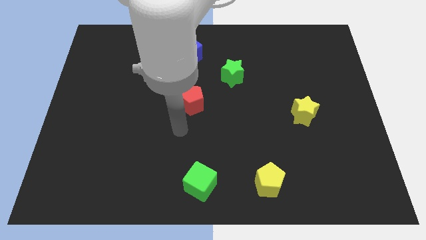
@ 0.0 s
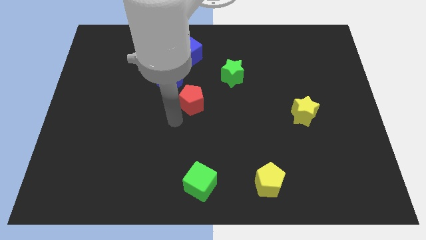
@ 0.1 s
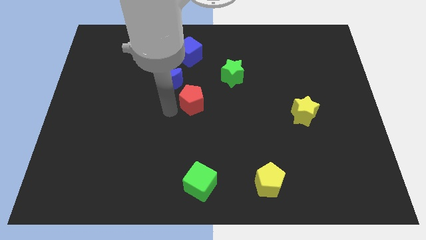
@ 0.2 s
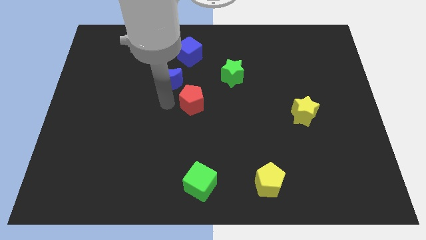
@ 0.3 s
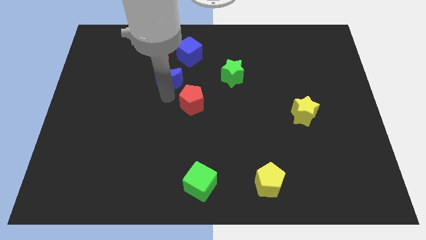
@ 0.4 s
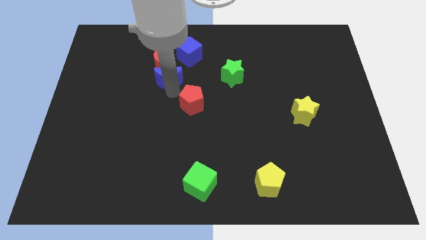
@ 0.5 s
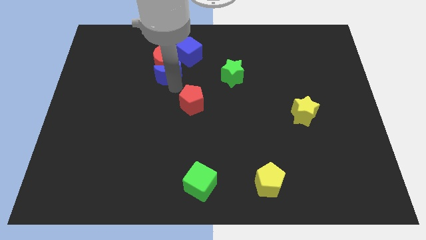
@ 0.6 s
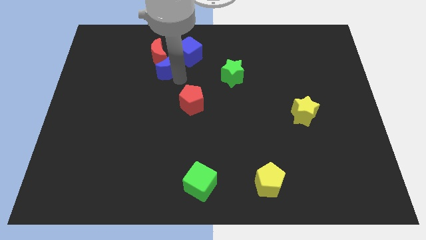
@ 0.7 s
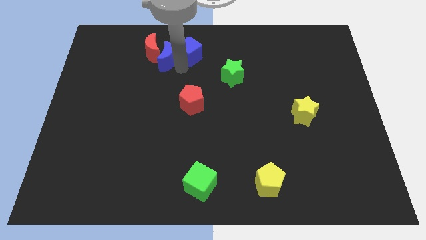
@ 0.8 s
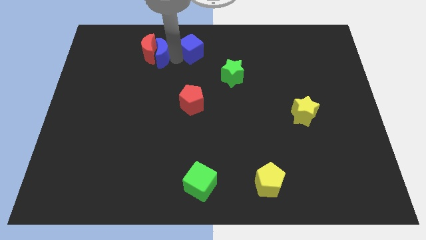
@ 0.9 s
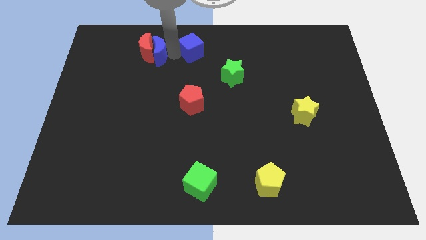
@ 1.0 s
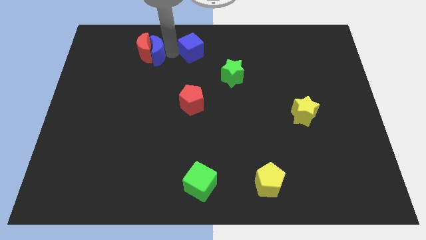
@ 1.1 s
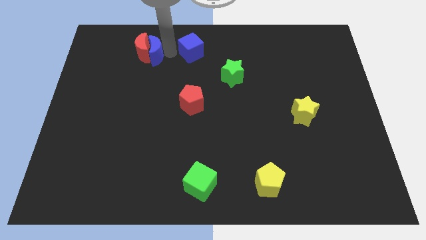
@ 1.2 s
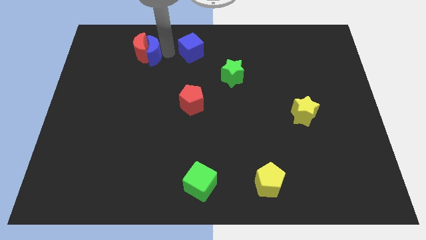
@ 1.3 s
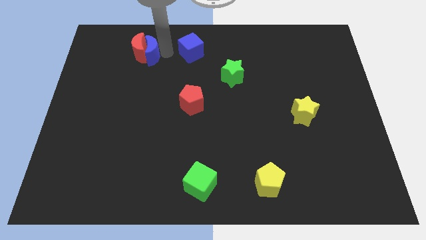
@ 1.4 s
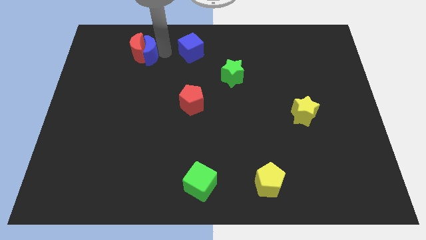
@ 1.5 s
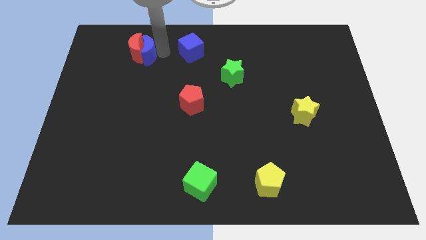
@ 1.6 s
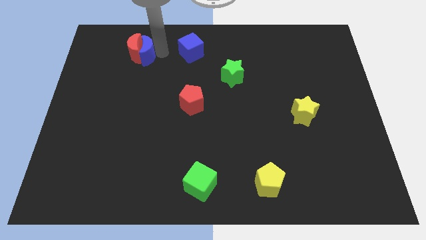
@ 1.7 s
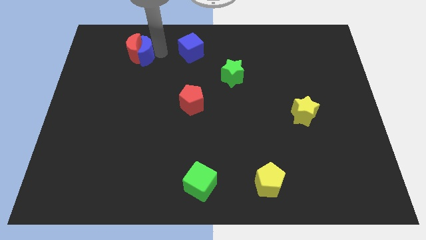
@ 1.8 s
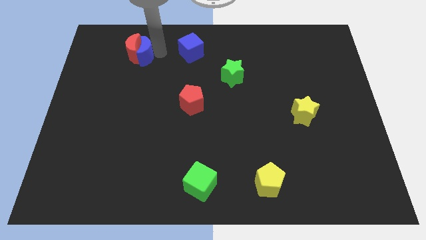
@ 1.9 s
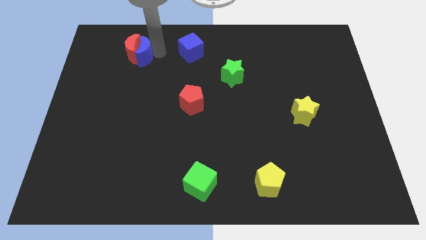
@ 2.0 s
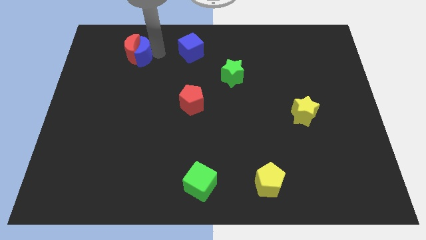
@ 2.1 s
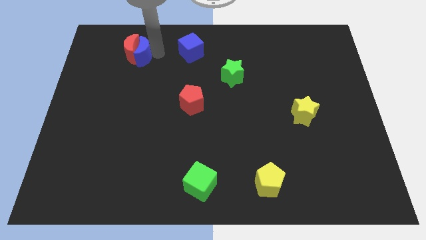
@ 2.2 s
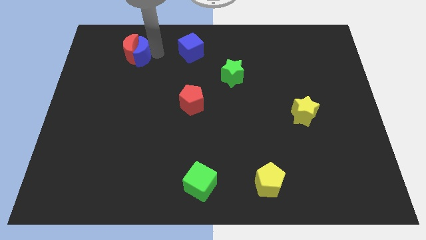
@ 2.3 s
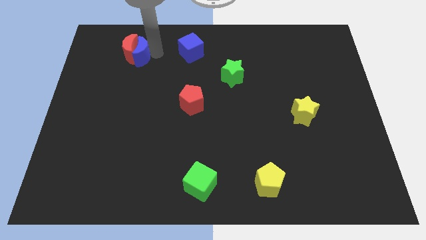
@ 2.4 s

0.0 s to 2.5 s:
move the red moon away from the blue moon and blue cube

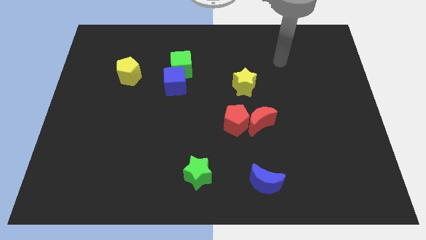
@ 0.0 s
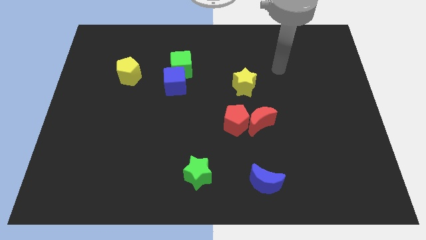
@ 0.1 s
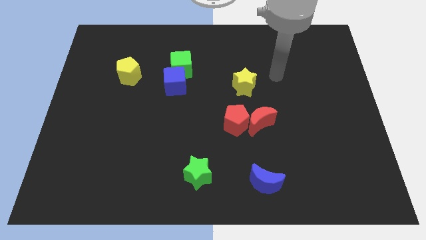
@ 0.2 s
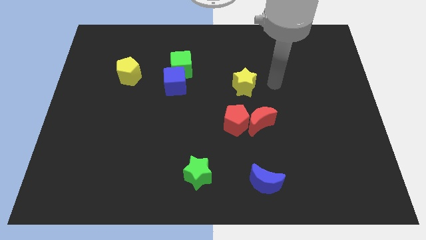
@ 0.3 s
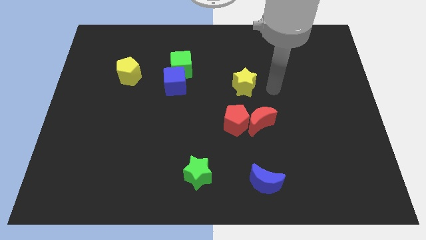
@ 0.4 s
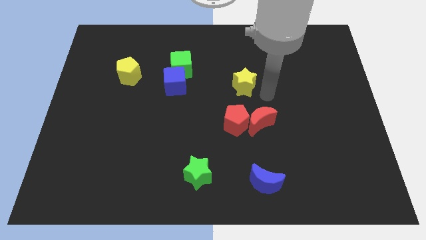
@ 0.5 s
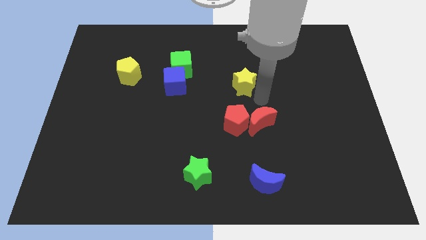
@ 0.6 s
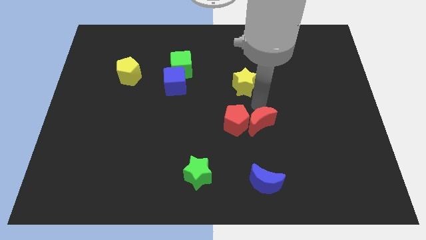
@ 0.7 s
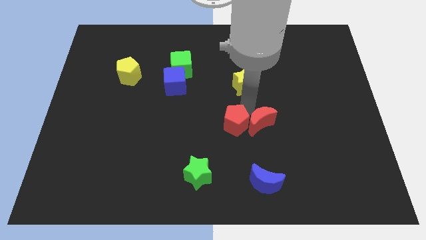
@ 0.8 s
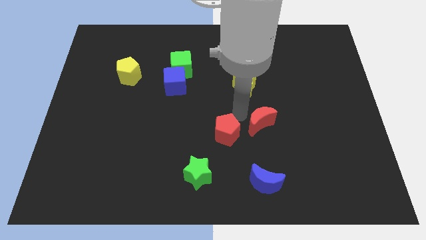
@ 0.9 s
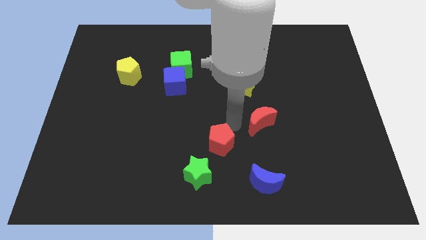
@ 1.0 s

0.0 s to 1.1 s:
pull the red moon apart from the red pentagon

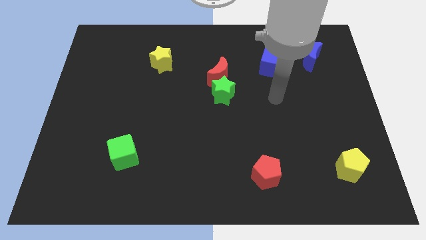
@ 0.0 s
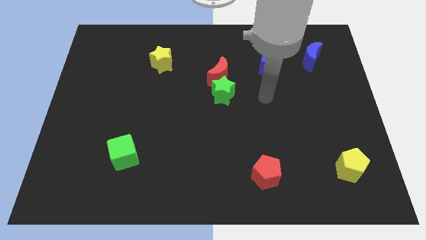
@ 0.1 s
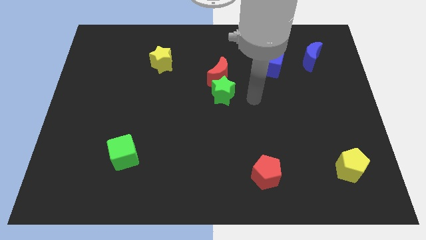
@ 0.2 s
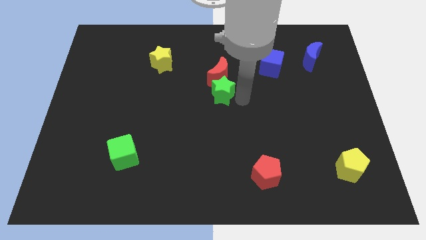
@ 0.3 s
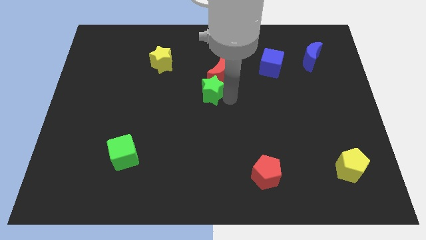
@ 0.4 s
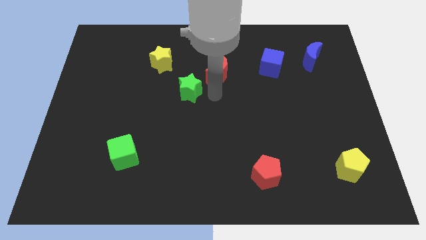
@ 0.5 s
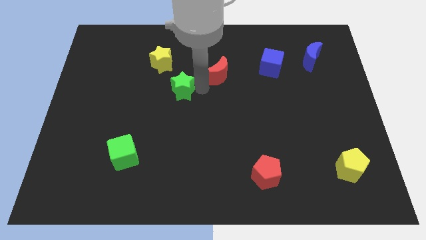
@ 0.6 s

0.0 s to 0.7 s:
pull the red moon apart from the green star

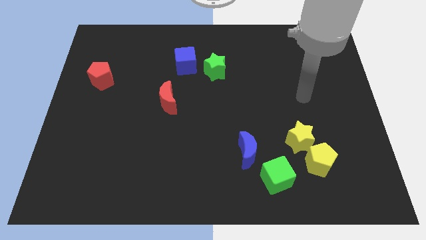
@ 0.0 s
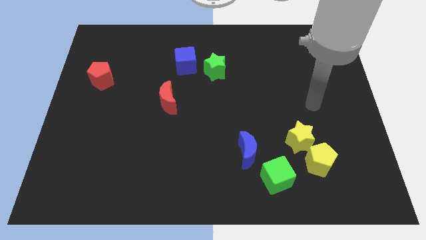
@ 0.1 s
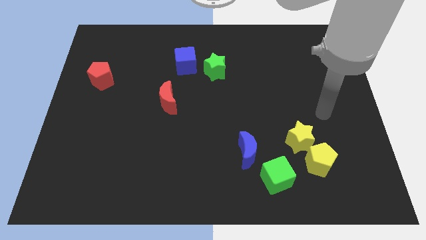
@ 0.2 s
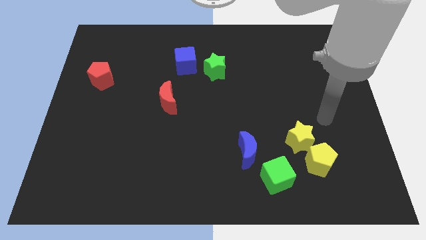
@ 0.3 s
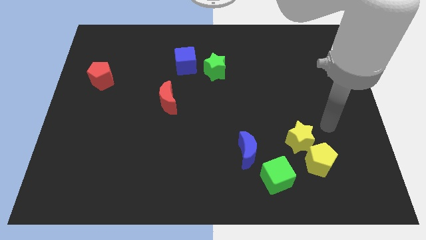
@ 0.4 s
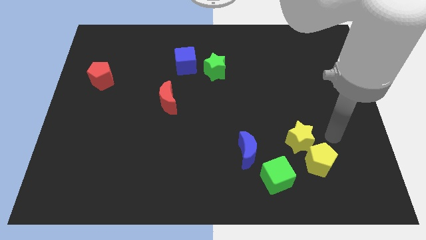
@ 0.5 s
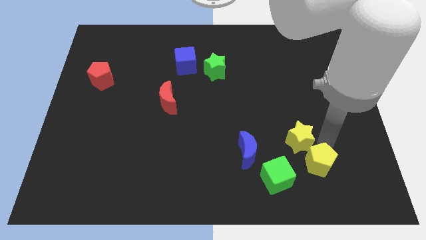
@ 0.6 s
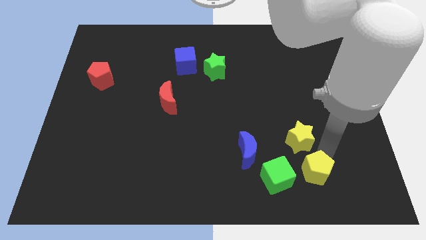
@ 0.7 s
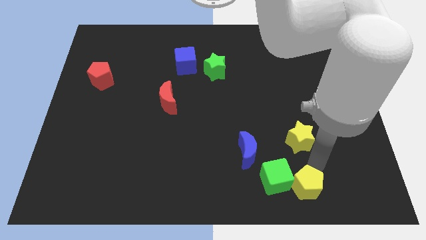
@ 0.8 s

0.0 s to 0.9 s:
separate the yellow star from the yellow pentagon

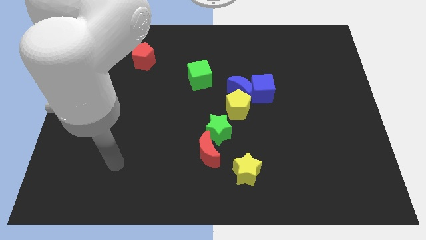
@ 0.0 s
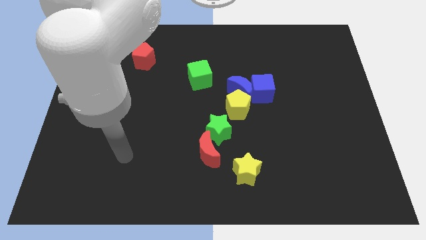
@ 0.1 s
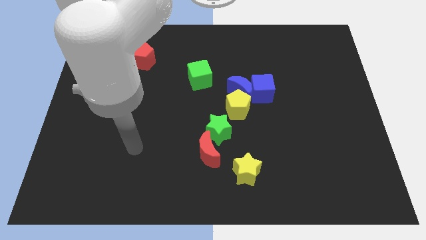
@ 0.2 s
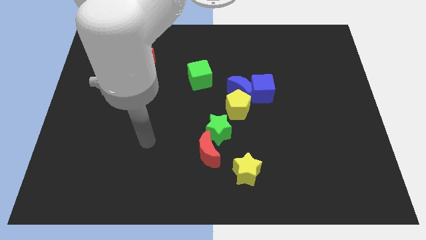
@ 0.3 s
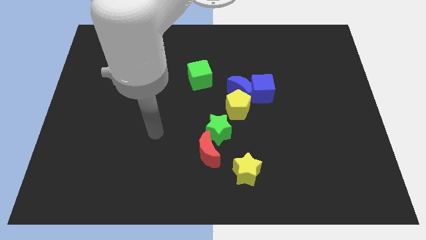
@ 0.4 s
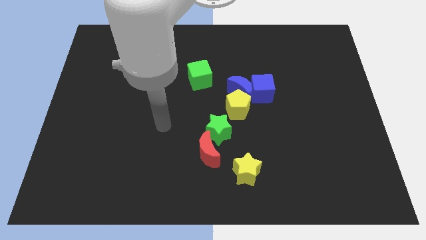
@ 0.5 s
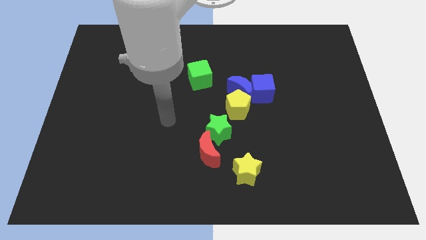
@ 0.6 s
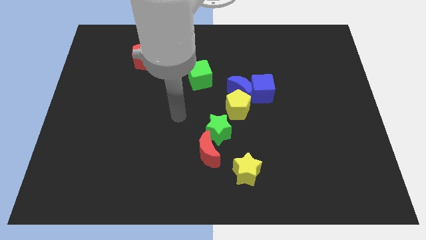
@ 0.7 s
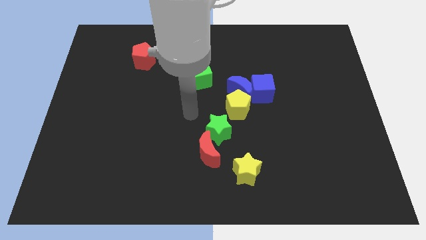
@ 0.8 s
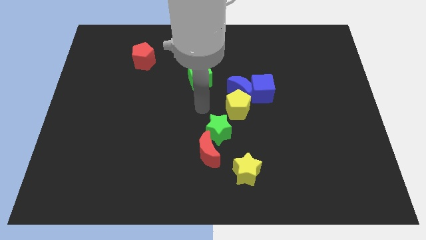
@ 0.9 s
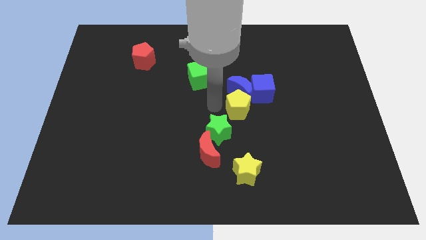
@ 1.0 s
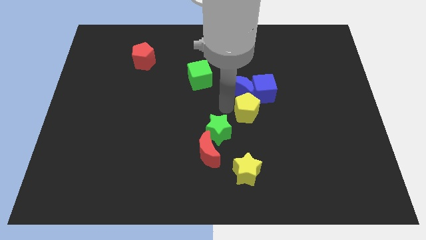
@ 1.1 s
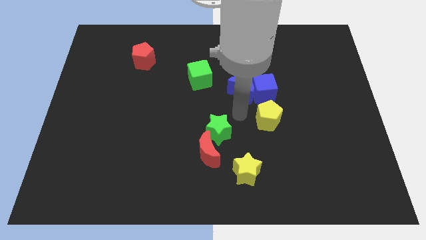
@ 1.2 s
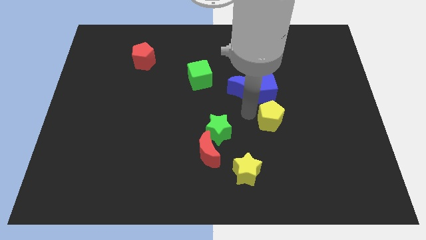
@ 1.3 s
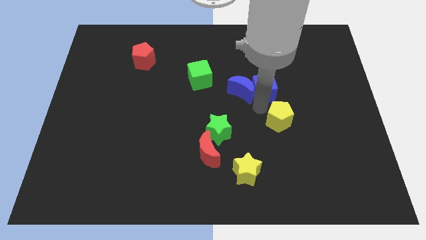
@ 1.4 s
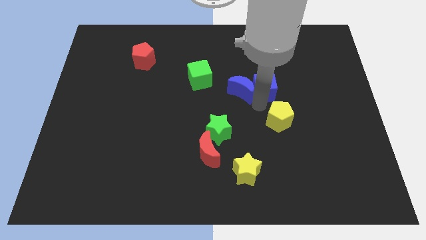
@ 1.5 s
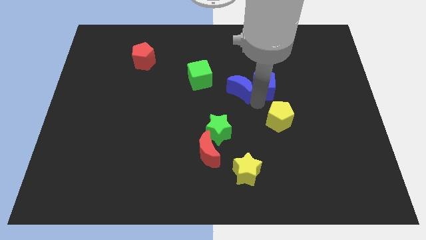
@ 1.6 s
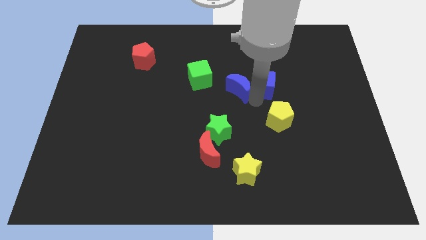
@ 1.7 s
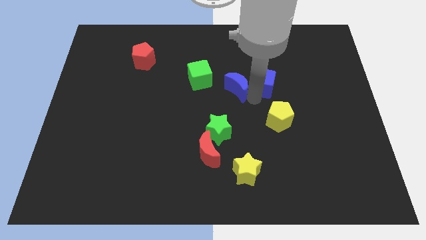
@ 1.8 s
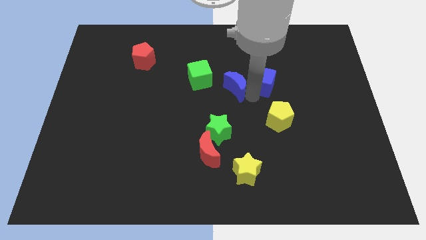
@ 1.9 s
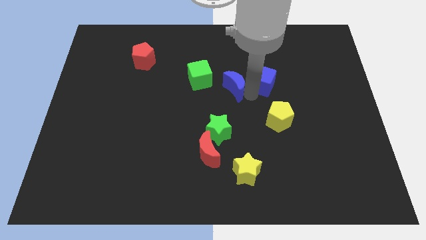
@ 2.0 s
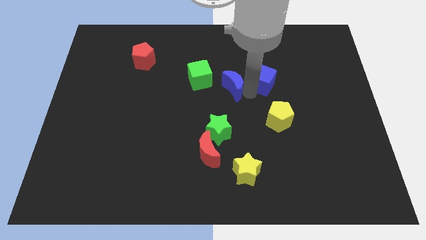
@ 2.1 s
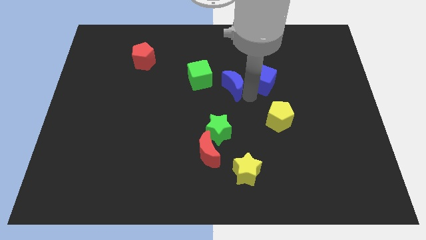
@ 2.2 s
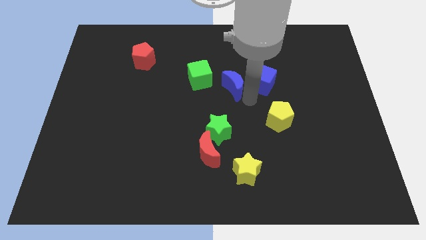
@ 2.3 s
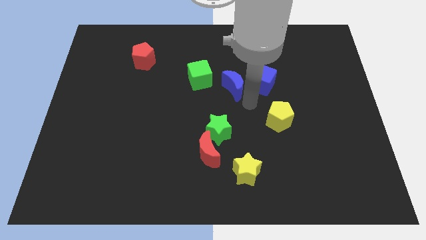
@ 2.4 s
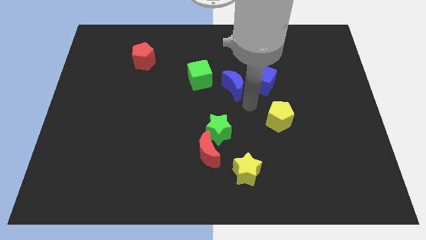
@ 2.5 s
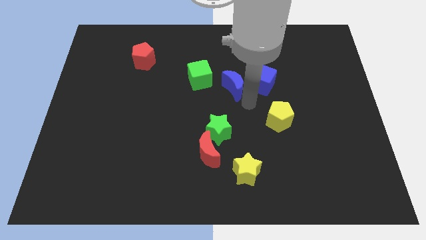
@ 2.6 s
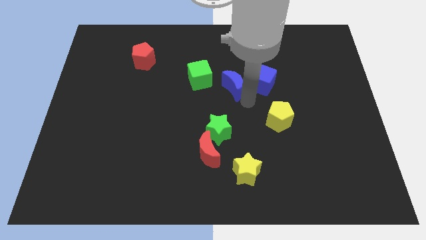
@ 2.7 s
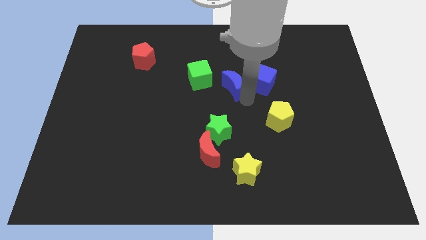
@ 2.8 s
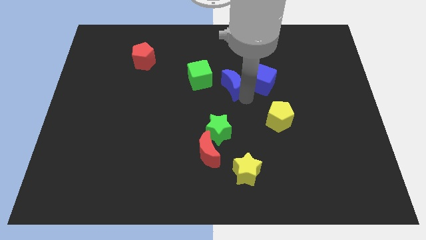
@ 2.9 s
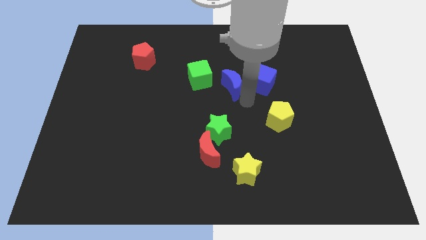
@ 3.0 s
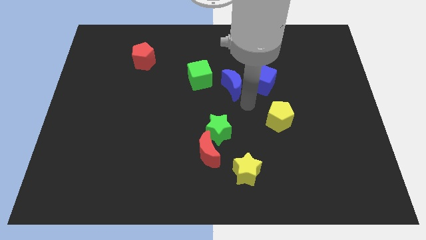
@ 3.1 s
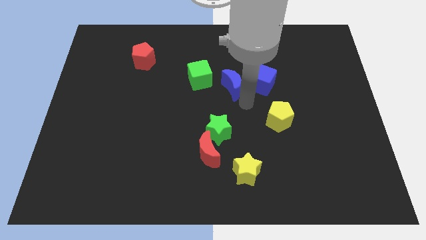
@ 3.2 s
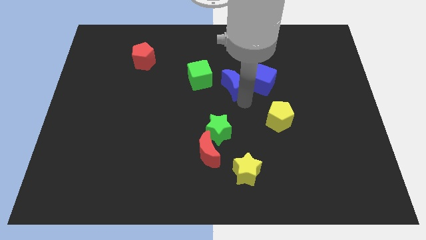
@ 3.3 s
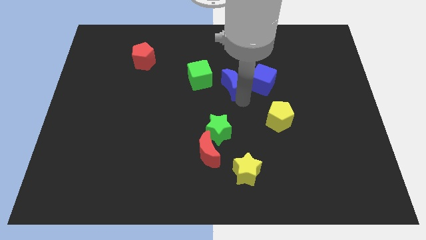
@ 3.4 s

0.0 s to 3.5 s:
pull the blue moon apart from the blue cube and yellow pentagon

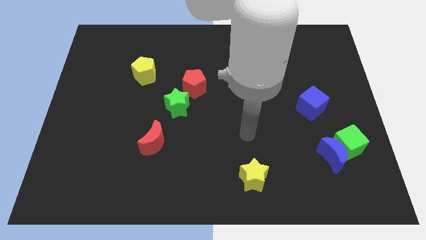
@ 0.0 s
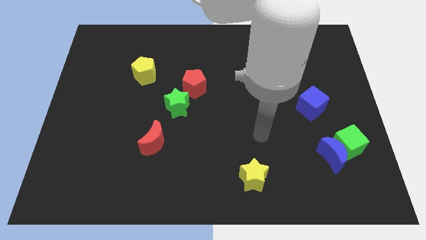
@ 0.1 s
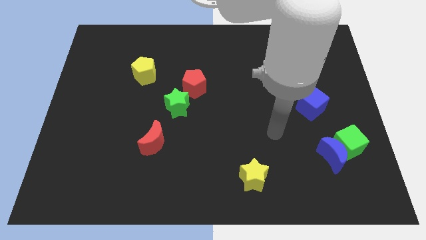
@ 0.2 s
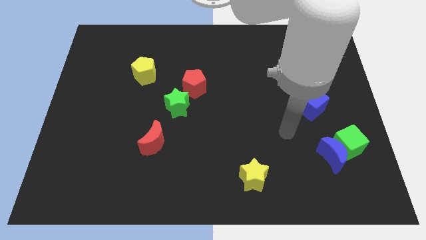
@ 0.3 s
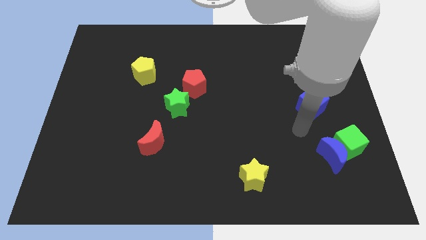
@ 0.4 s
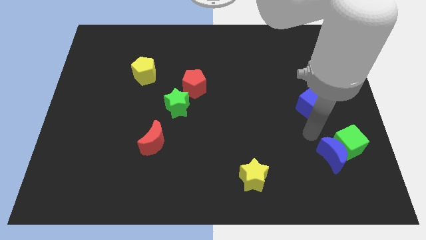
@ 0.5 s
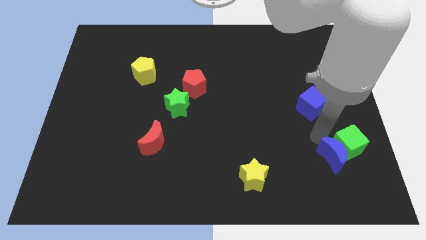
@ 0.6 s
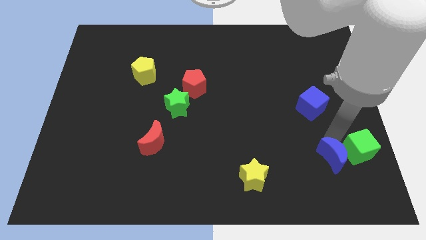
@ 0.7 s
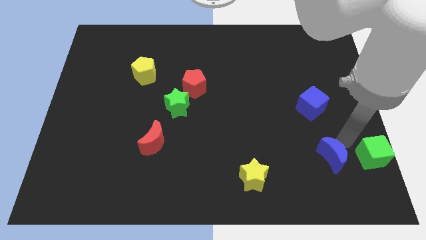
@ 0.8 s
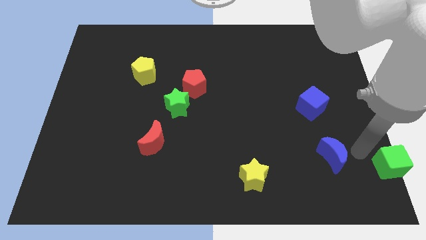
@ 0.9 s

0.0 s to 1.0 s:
move the blue moon away from the green cube
